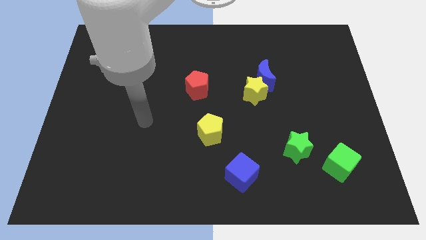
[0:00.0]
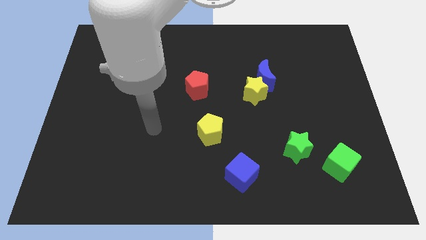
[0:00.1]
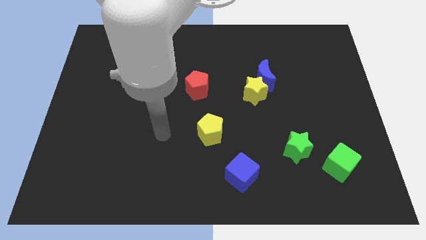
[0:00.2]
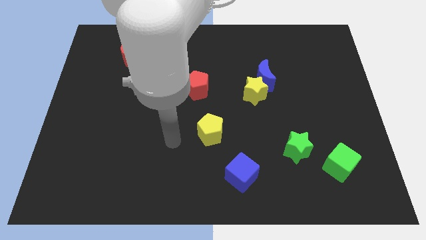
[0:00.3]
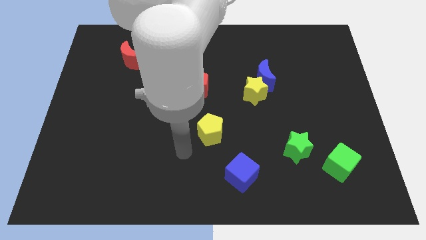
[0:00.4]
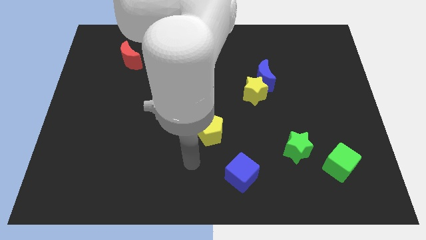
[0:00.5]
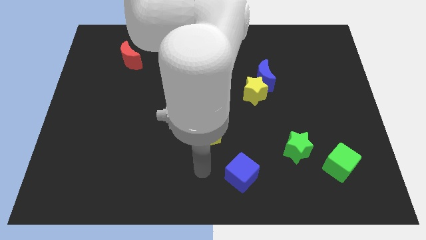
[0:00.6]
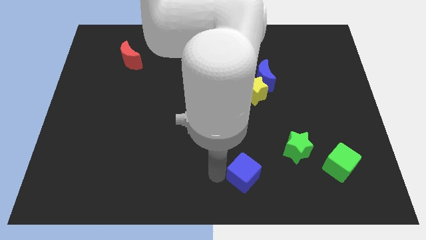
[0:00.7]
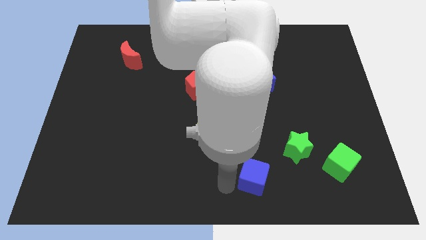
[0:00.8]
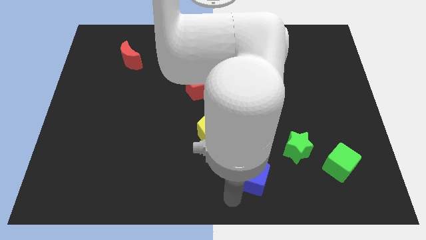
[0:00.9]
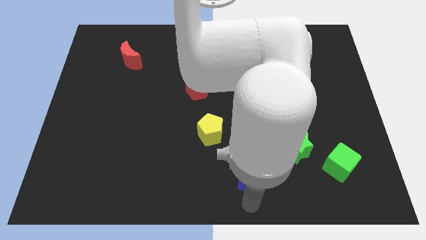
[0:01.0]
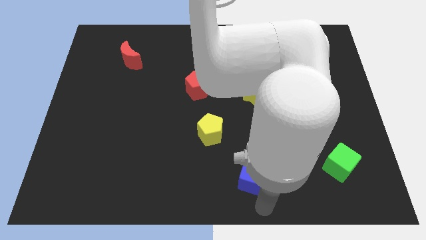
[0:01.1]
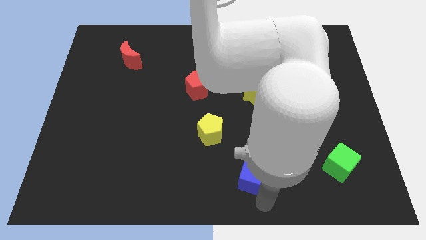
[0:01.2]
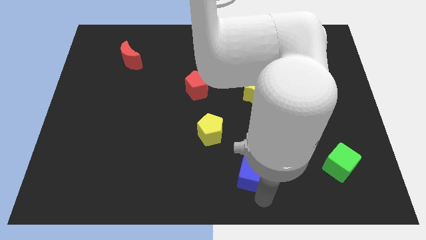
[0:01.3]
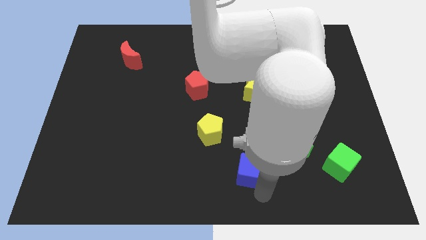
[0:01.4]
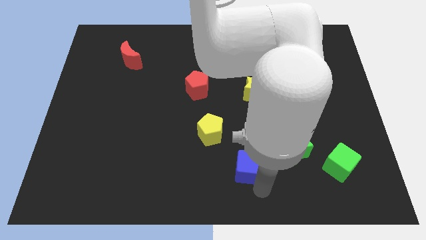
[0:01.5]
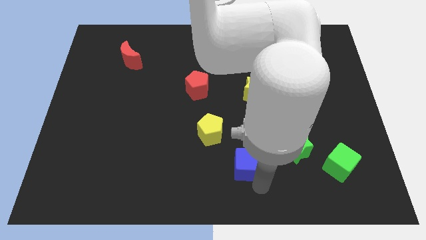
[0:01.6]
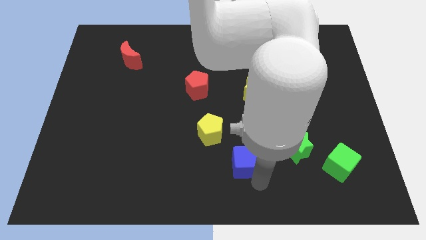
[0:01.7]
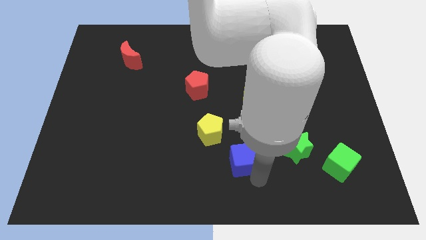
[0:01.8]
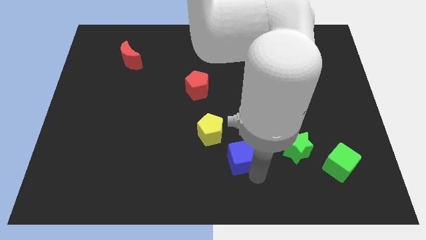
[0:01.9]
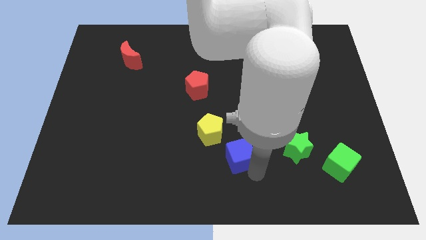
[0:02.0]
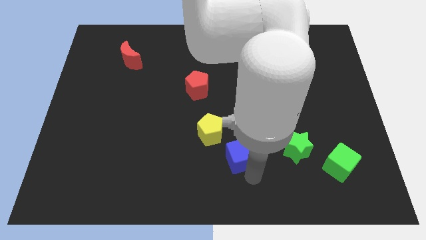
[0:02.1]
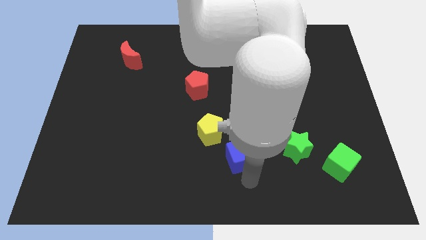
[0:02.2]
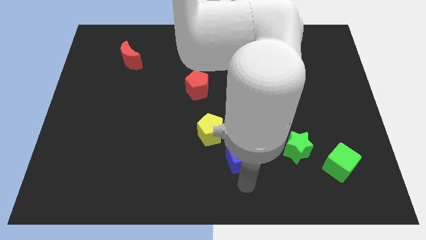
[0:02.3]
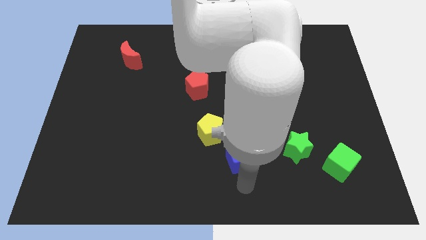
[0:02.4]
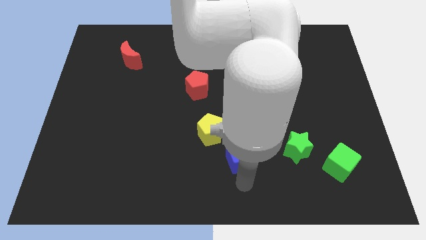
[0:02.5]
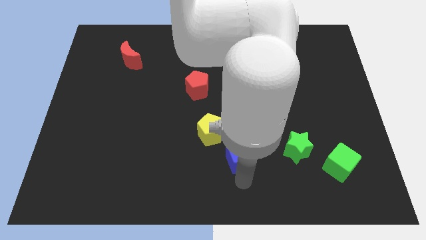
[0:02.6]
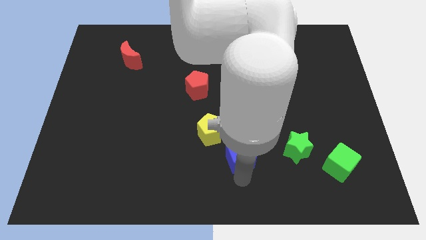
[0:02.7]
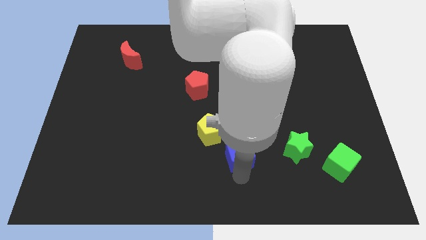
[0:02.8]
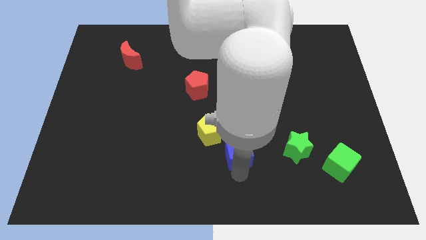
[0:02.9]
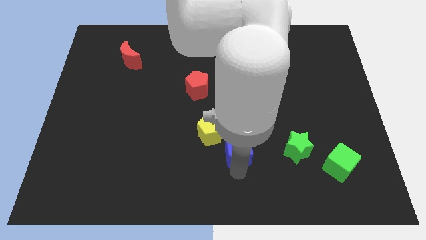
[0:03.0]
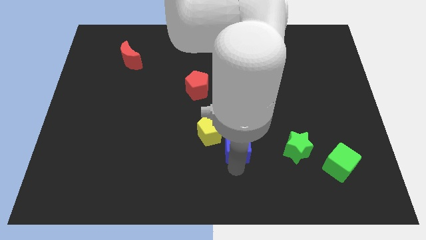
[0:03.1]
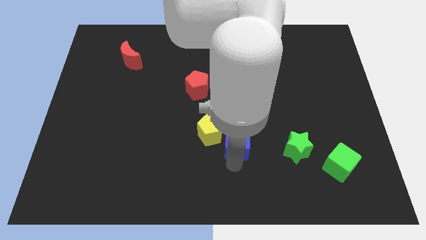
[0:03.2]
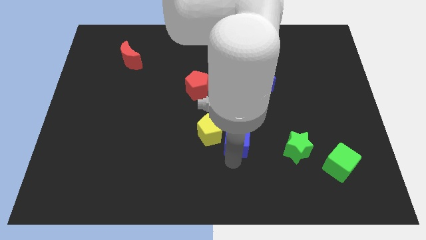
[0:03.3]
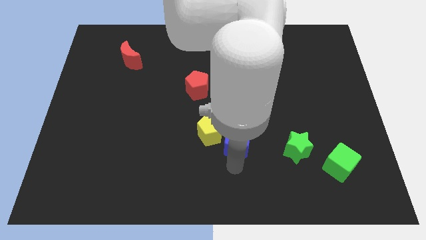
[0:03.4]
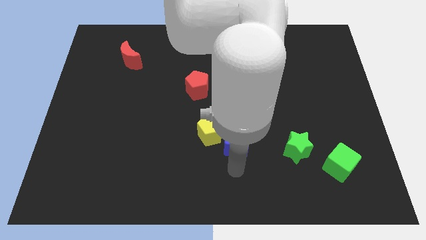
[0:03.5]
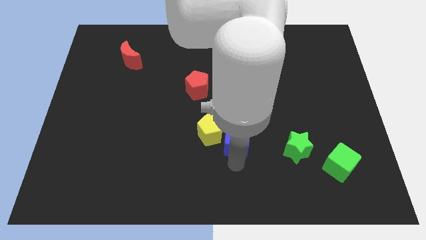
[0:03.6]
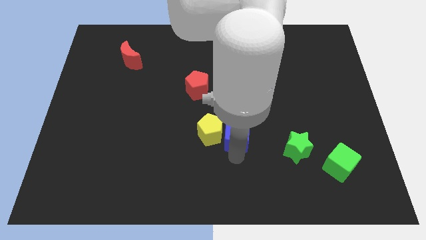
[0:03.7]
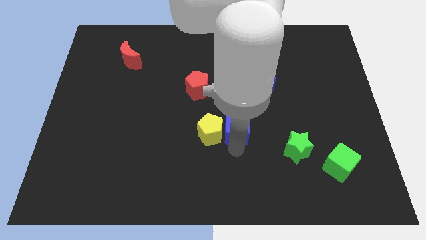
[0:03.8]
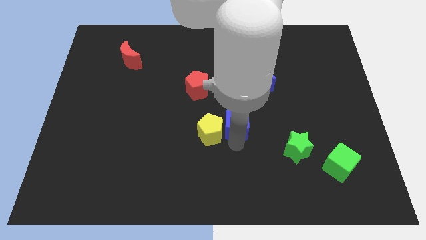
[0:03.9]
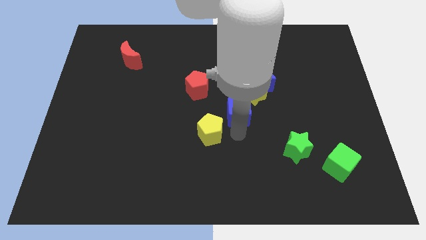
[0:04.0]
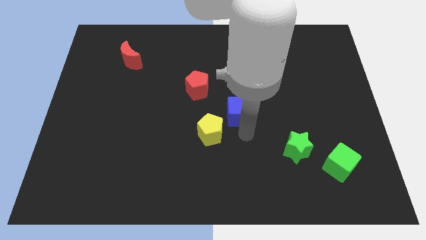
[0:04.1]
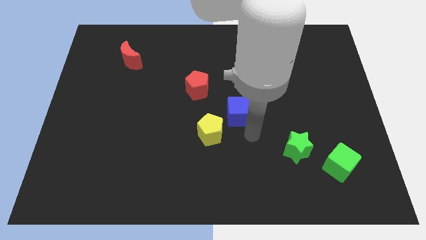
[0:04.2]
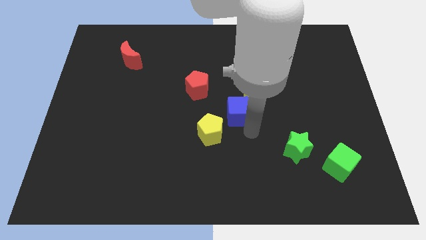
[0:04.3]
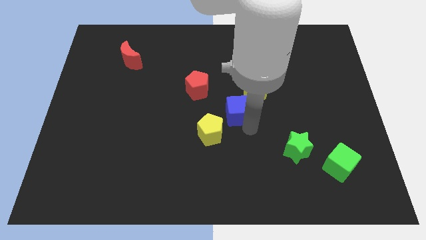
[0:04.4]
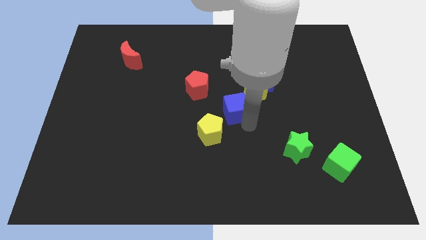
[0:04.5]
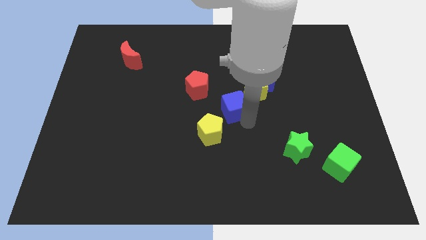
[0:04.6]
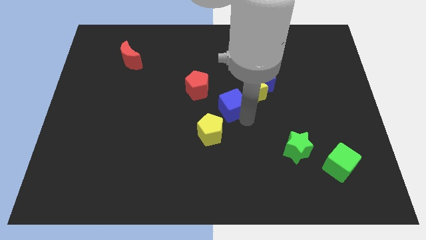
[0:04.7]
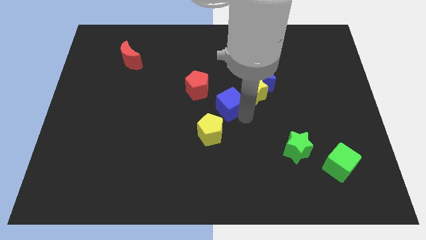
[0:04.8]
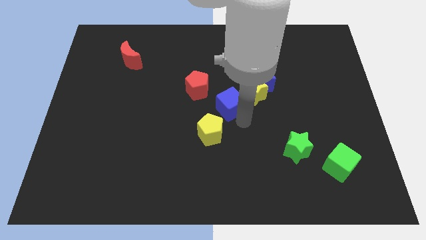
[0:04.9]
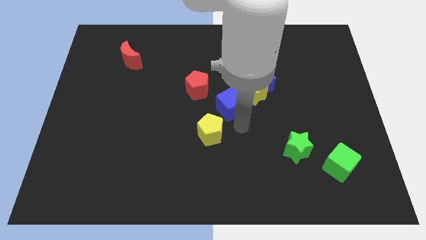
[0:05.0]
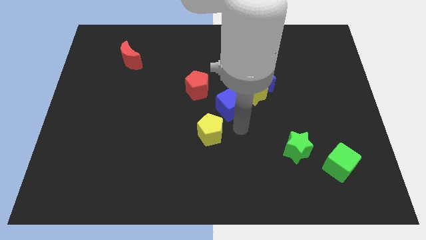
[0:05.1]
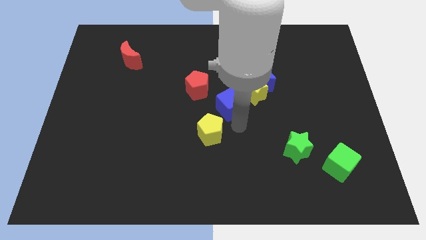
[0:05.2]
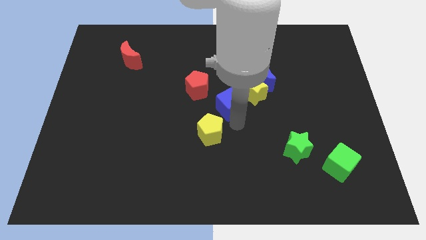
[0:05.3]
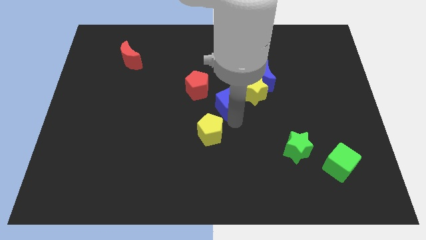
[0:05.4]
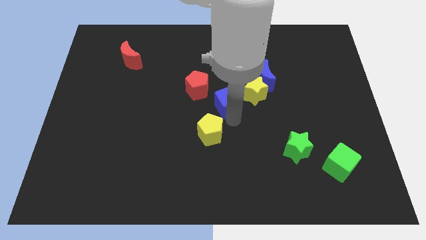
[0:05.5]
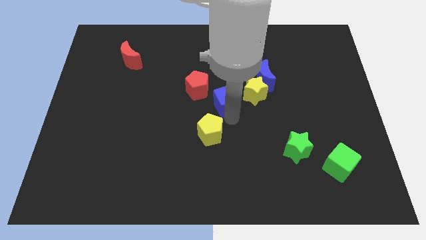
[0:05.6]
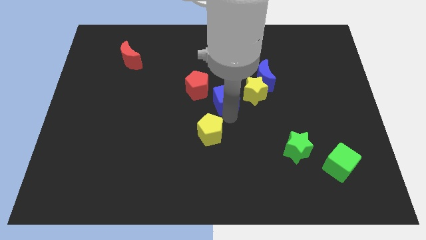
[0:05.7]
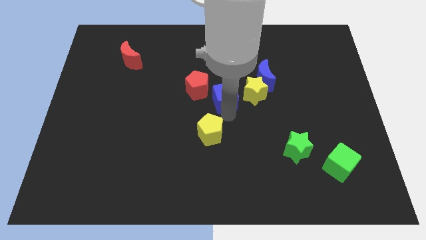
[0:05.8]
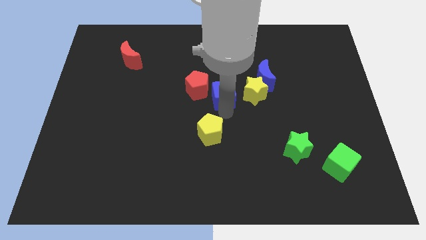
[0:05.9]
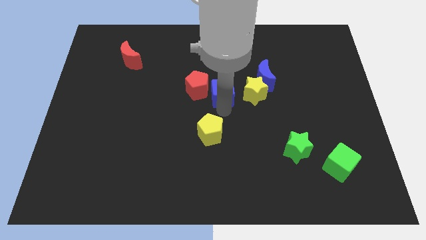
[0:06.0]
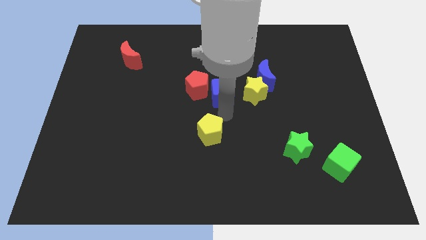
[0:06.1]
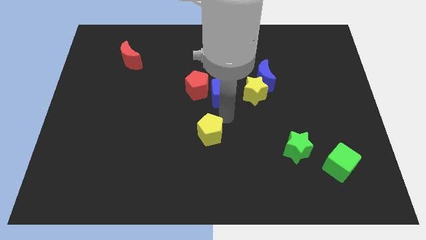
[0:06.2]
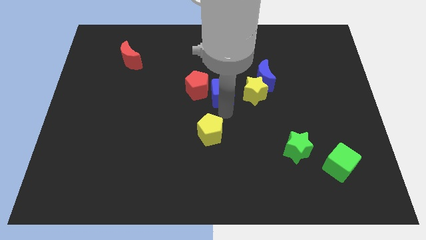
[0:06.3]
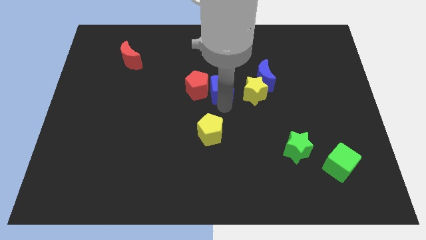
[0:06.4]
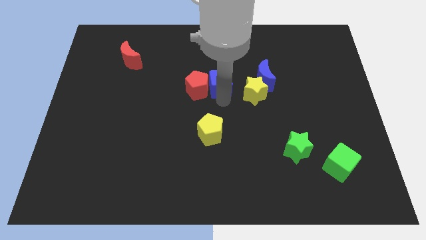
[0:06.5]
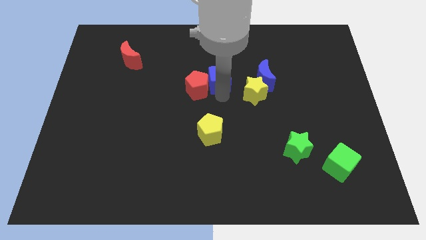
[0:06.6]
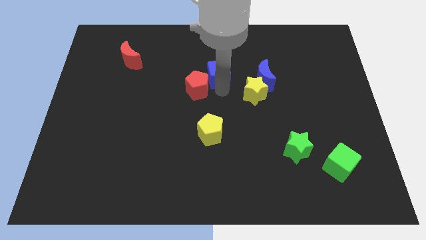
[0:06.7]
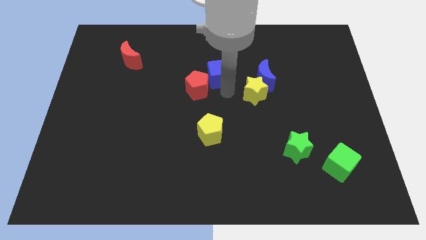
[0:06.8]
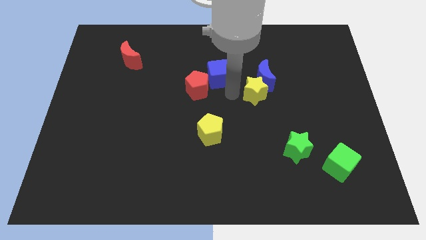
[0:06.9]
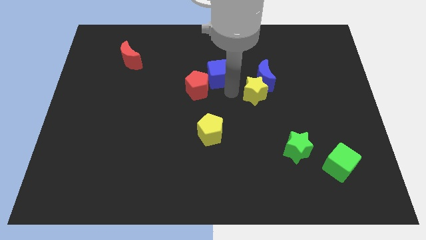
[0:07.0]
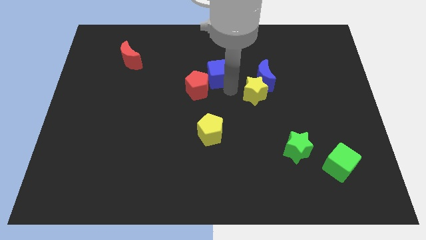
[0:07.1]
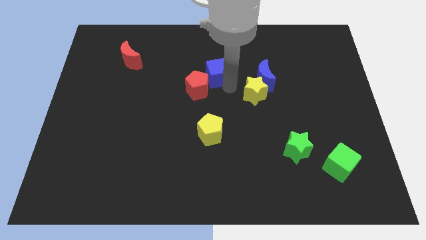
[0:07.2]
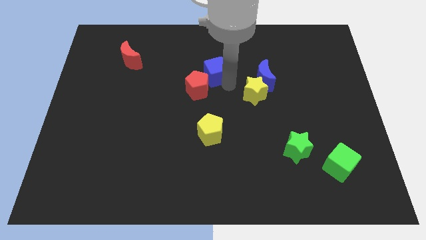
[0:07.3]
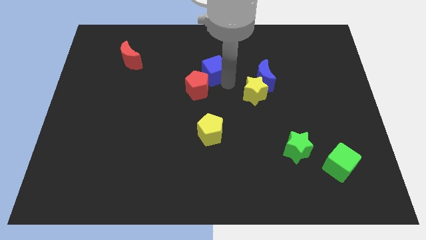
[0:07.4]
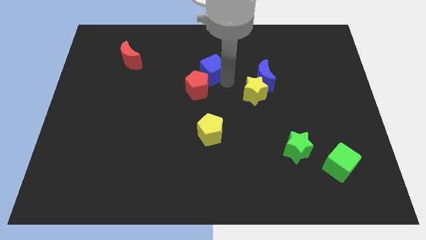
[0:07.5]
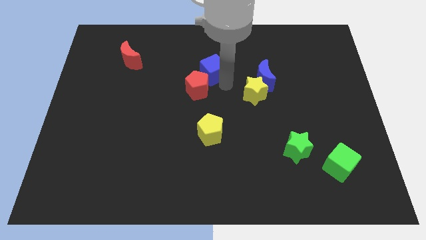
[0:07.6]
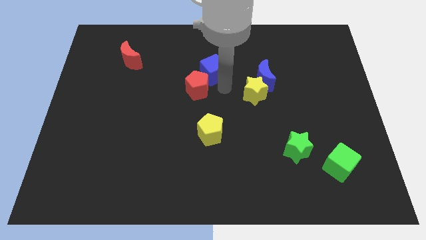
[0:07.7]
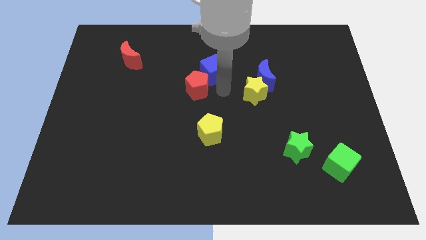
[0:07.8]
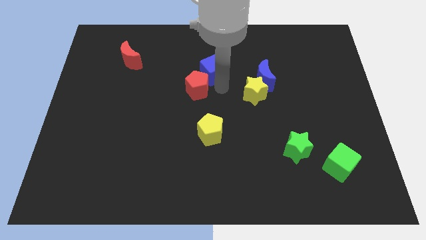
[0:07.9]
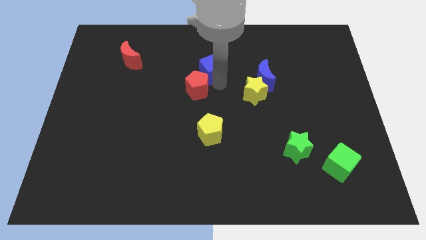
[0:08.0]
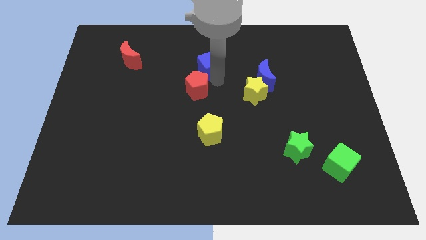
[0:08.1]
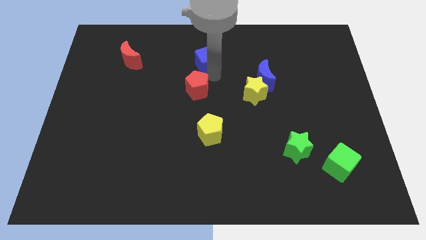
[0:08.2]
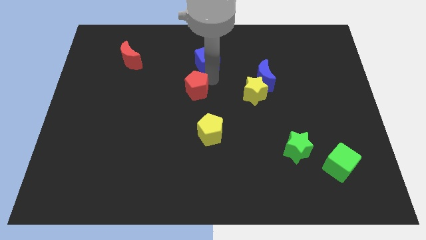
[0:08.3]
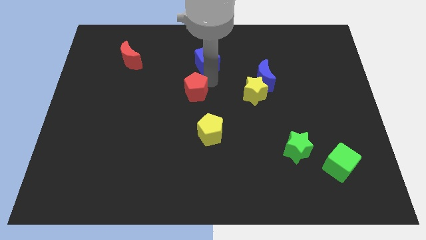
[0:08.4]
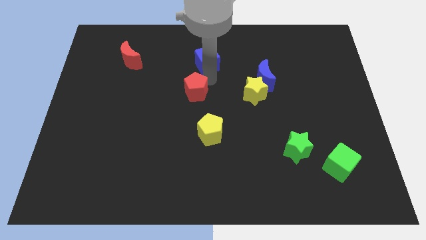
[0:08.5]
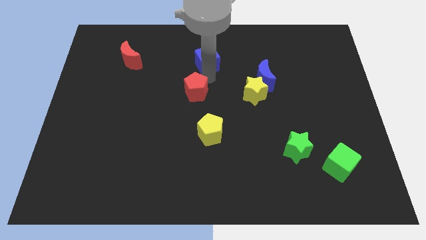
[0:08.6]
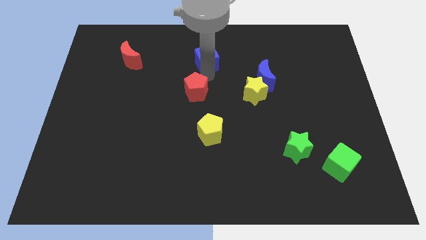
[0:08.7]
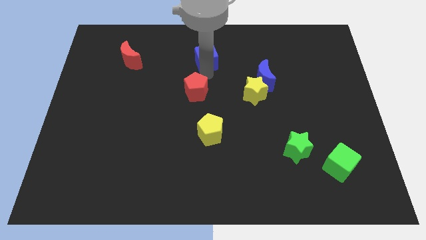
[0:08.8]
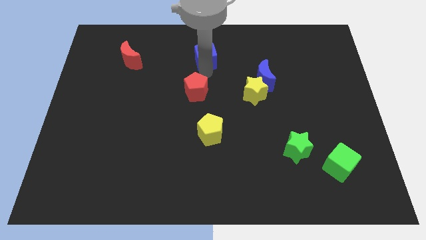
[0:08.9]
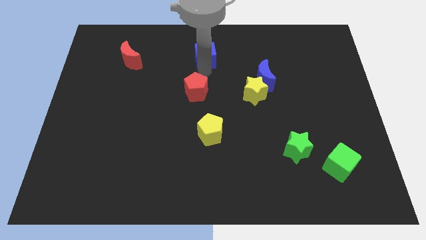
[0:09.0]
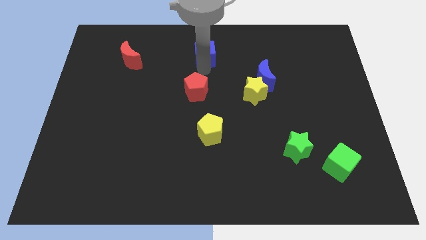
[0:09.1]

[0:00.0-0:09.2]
move the blue cube to the top side
